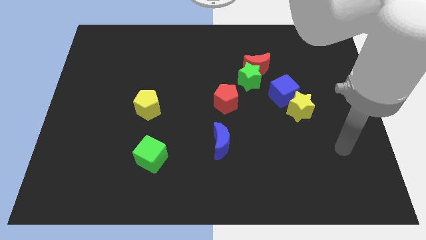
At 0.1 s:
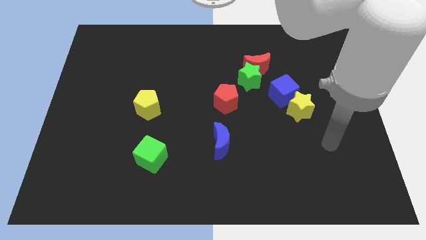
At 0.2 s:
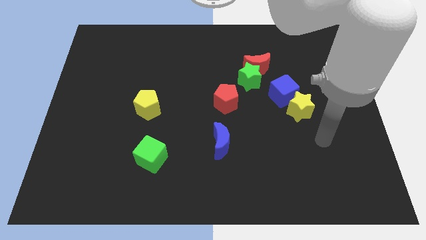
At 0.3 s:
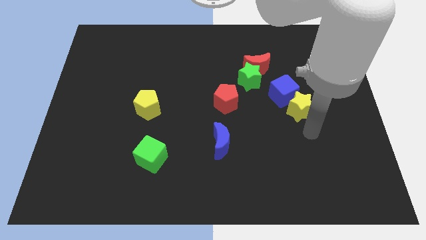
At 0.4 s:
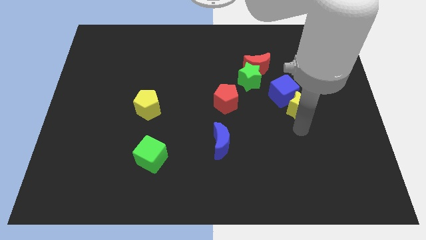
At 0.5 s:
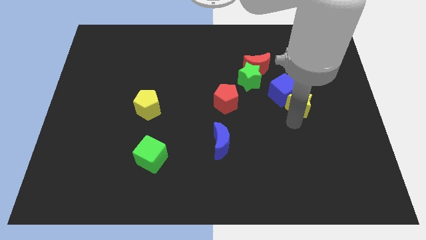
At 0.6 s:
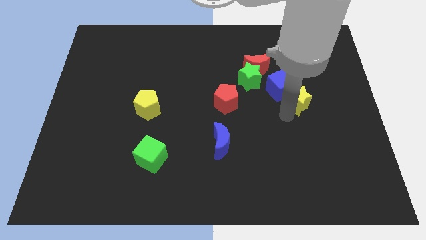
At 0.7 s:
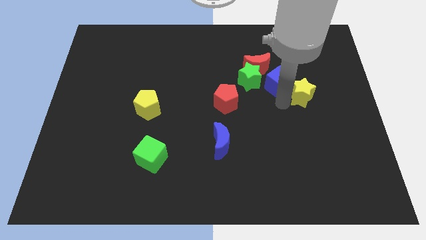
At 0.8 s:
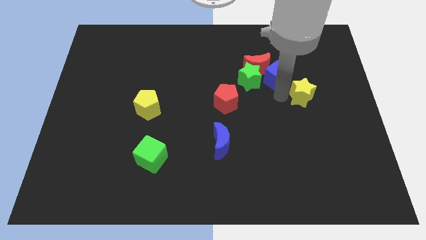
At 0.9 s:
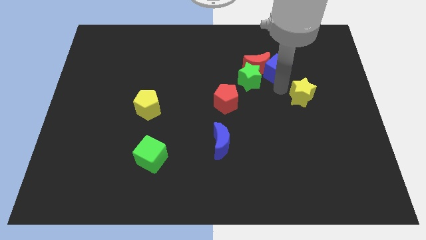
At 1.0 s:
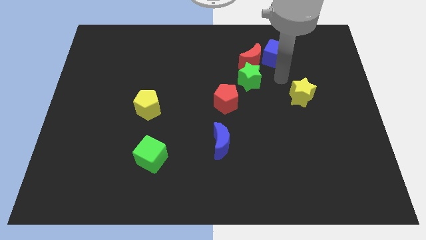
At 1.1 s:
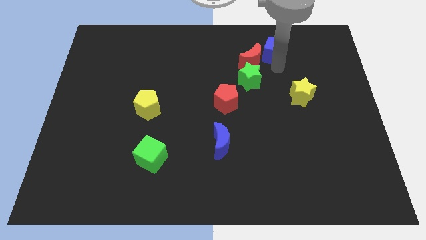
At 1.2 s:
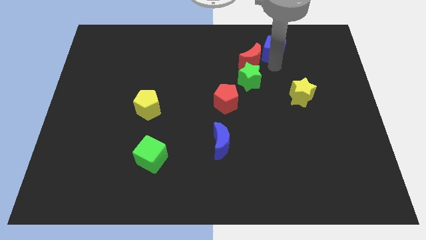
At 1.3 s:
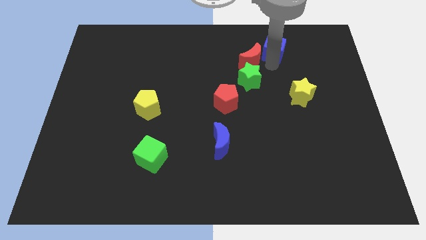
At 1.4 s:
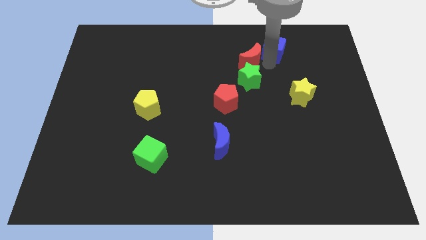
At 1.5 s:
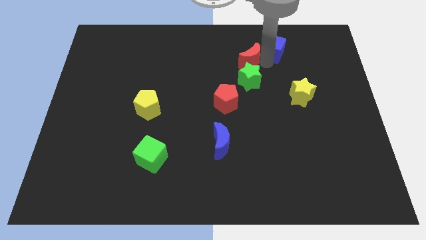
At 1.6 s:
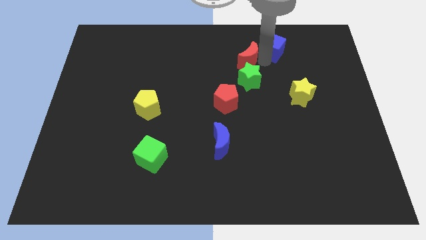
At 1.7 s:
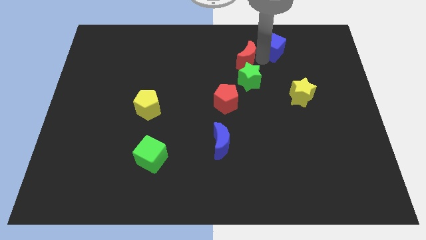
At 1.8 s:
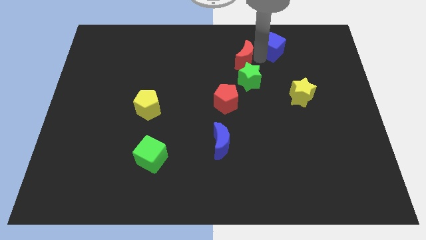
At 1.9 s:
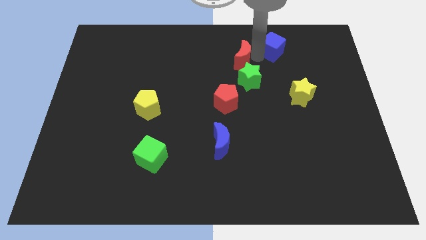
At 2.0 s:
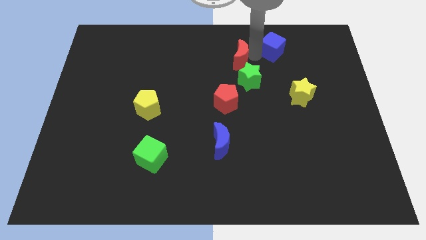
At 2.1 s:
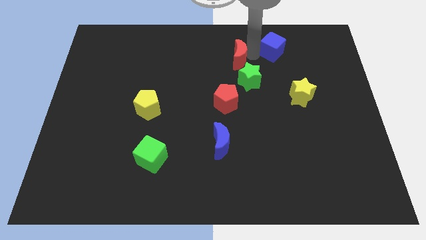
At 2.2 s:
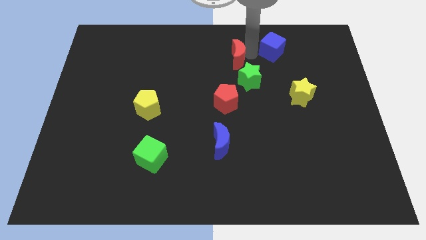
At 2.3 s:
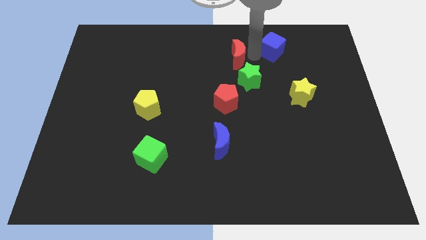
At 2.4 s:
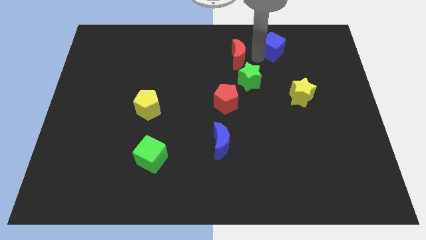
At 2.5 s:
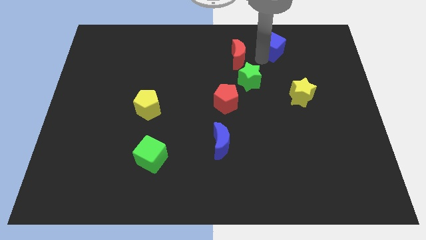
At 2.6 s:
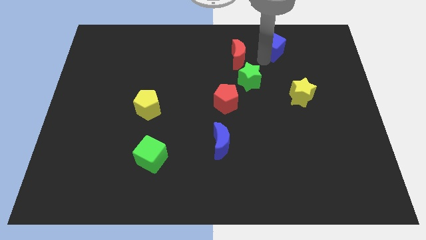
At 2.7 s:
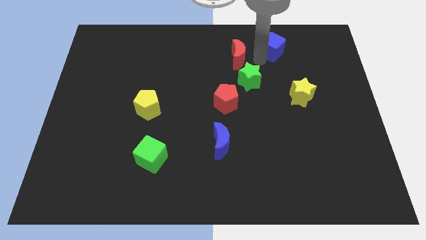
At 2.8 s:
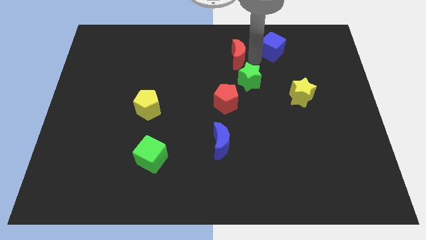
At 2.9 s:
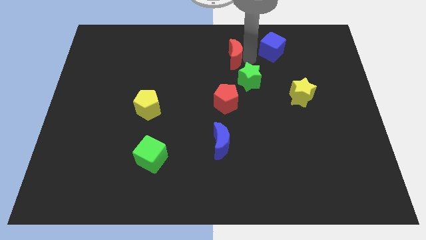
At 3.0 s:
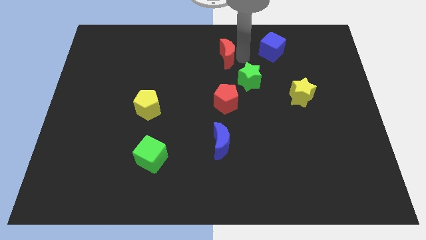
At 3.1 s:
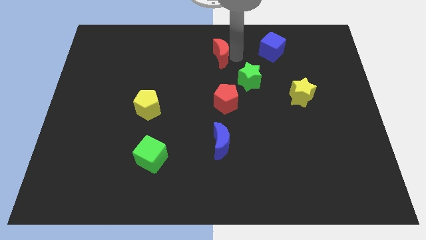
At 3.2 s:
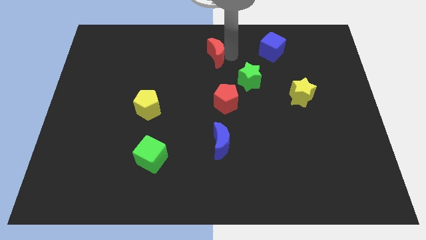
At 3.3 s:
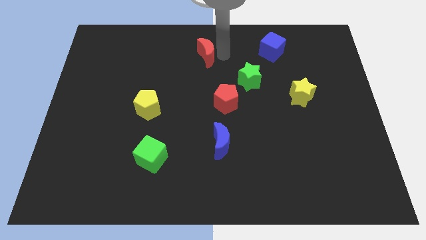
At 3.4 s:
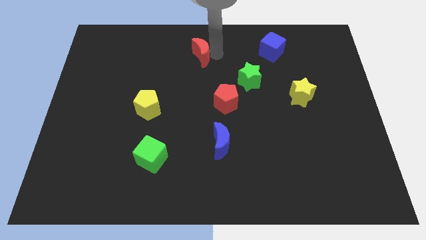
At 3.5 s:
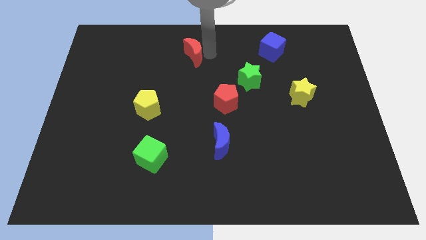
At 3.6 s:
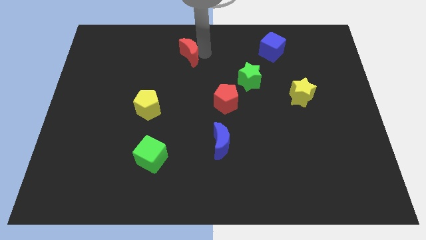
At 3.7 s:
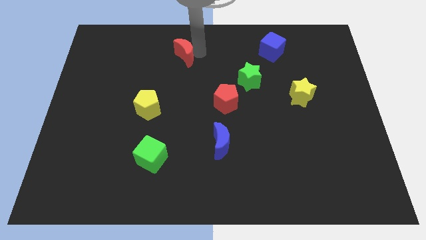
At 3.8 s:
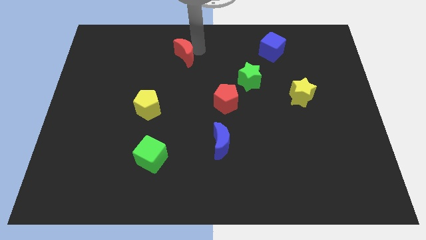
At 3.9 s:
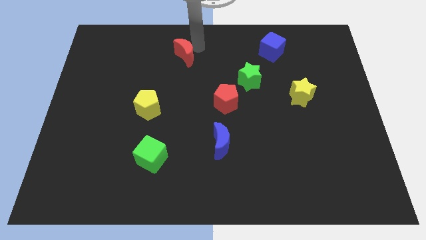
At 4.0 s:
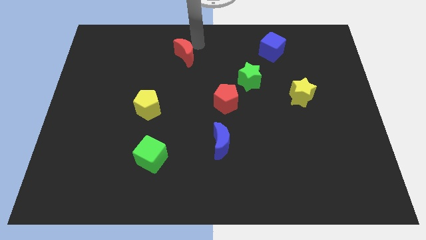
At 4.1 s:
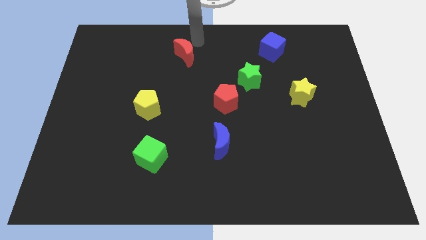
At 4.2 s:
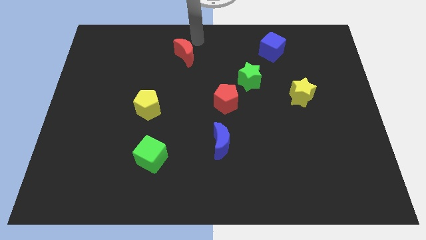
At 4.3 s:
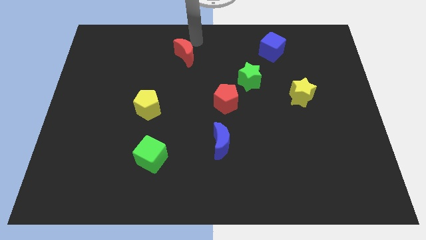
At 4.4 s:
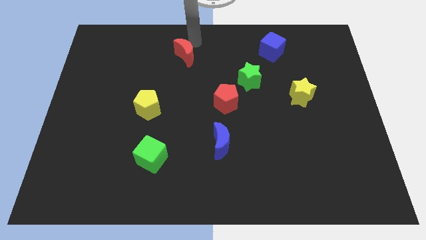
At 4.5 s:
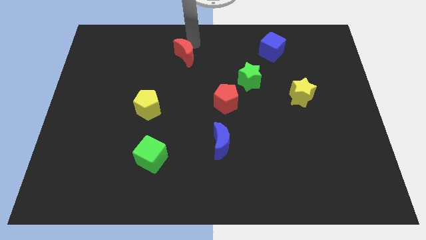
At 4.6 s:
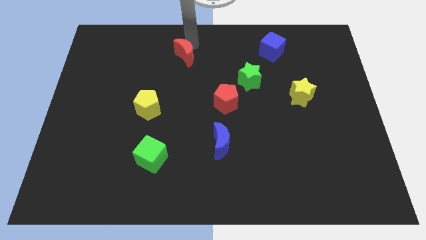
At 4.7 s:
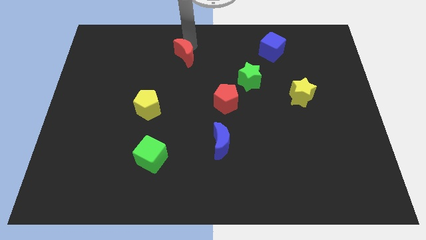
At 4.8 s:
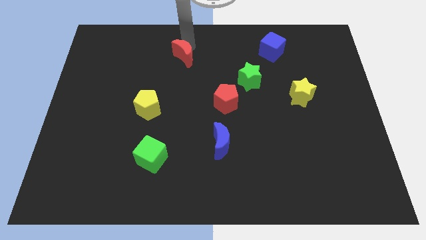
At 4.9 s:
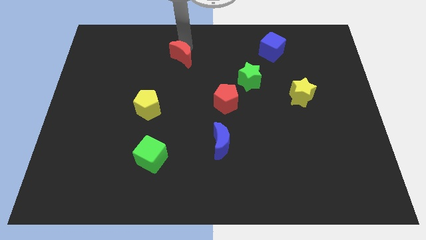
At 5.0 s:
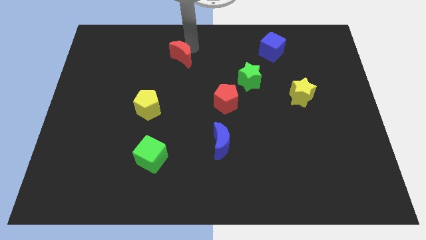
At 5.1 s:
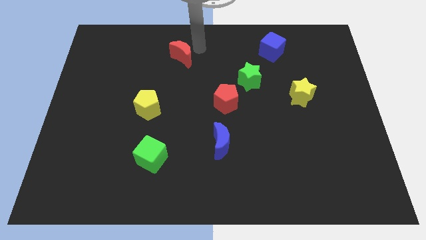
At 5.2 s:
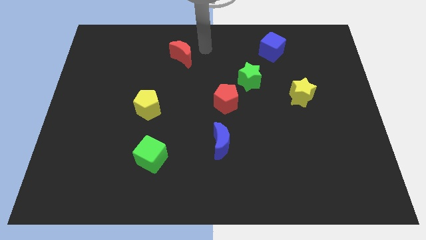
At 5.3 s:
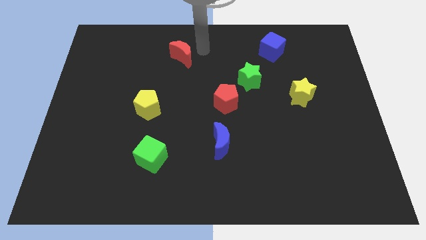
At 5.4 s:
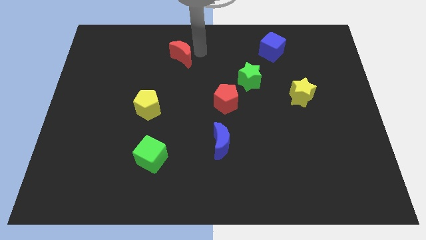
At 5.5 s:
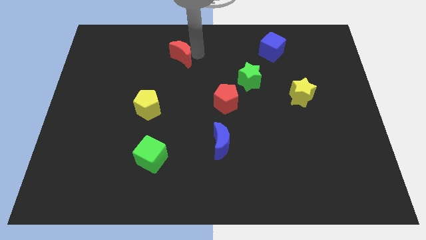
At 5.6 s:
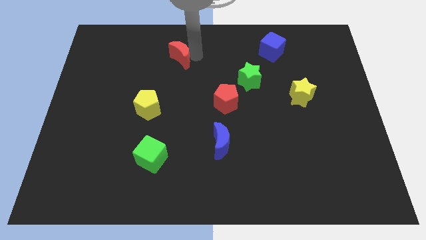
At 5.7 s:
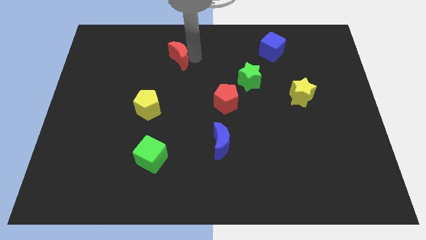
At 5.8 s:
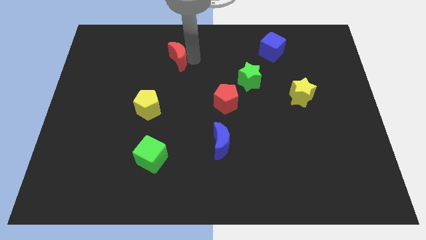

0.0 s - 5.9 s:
slide the red moon left

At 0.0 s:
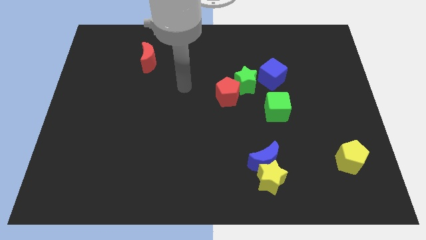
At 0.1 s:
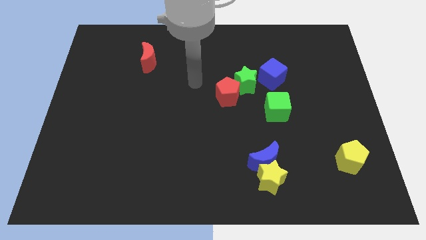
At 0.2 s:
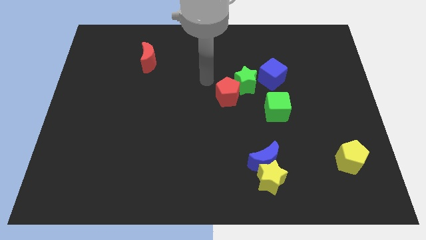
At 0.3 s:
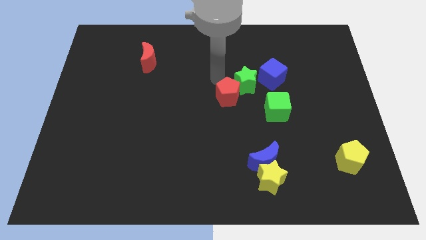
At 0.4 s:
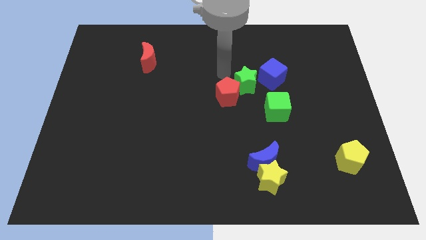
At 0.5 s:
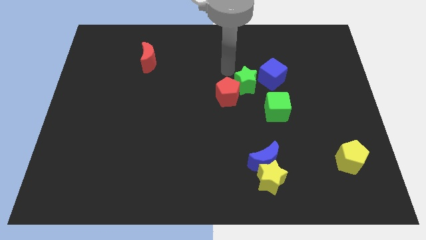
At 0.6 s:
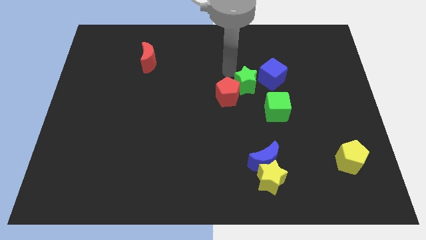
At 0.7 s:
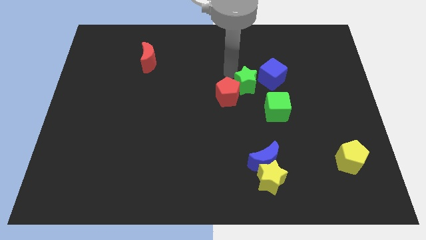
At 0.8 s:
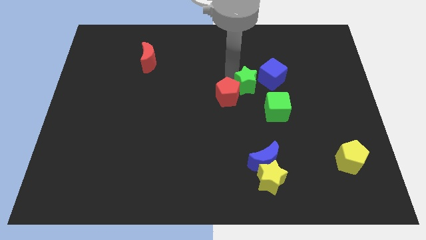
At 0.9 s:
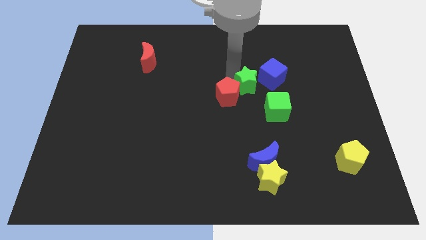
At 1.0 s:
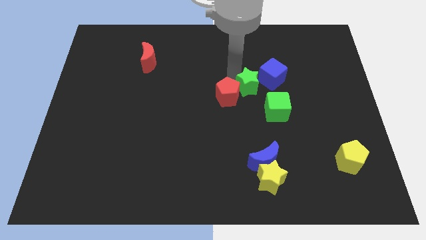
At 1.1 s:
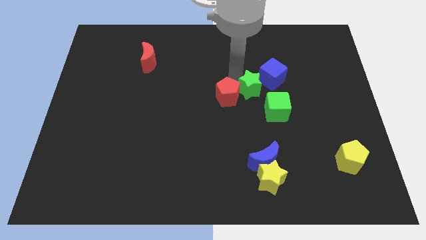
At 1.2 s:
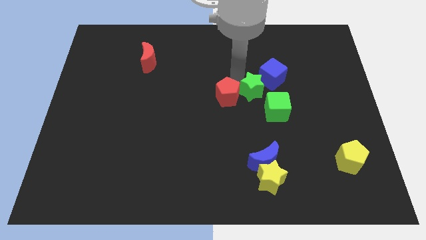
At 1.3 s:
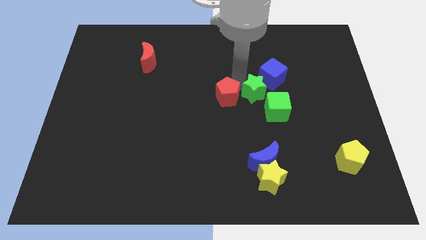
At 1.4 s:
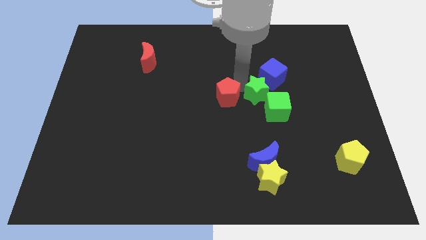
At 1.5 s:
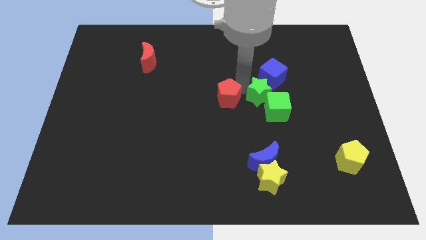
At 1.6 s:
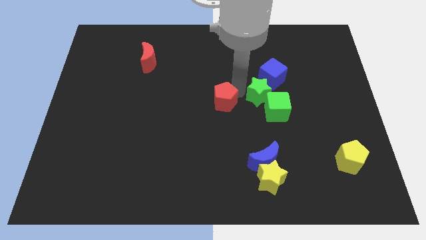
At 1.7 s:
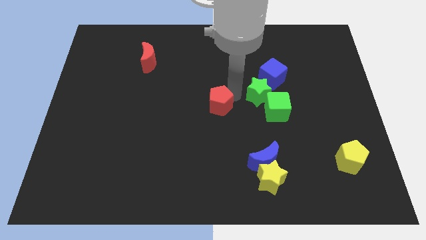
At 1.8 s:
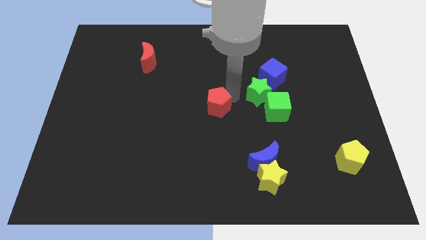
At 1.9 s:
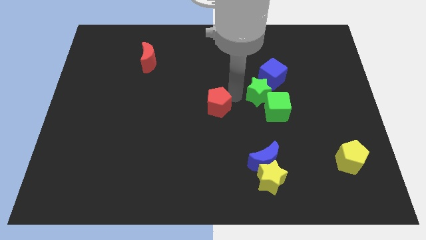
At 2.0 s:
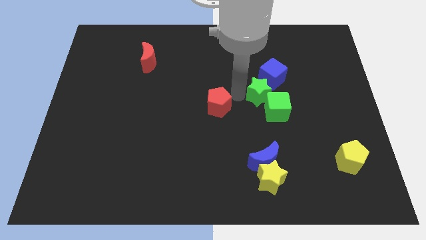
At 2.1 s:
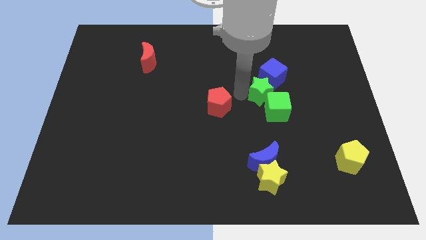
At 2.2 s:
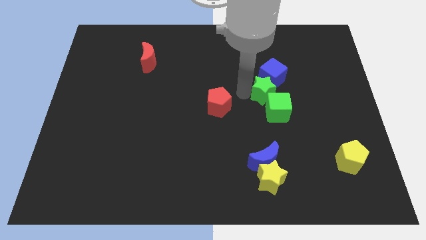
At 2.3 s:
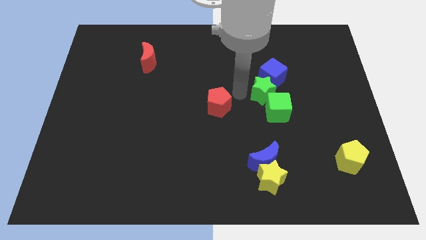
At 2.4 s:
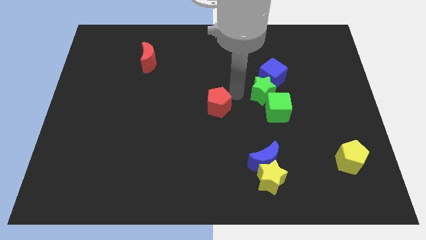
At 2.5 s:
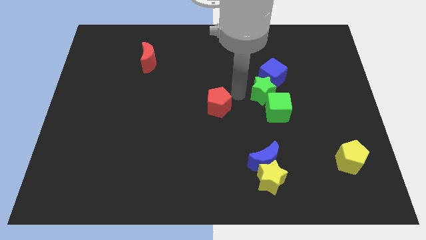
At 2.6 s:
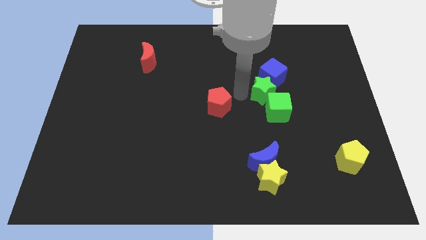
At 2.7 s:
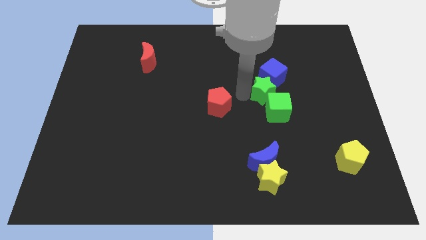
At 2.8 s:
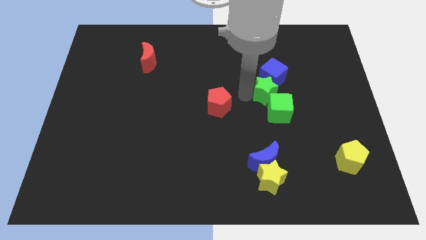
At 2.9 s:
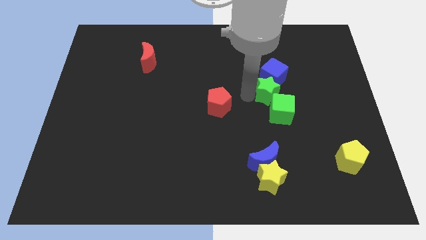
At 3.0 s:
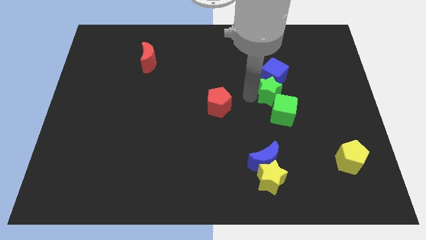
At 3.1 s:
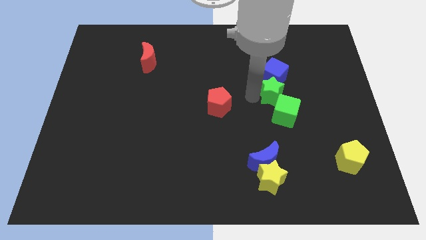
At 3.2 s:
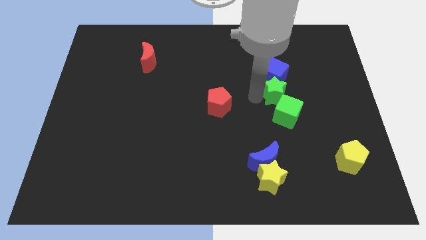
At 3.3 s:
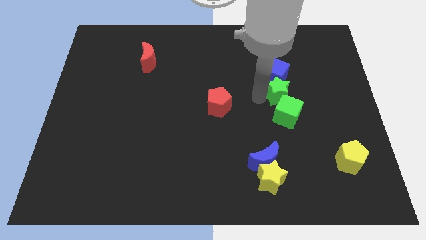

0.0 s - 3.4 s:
slide the green star slightly right
